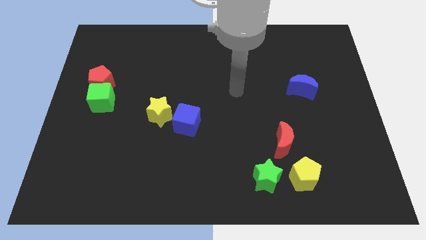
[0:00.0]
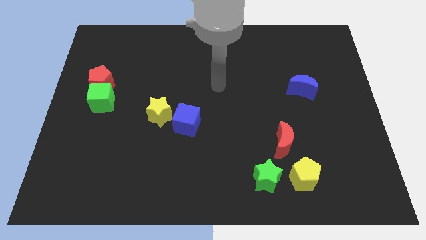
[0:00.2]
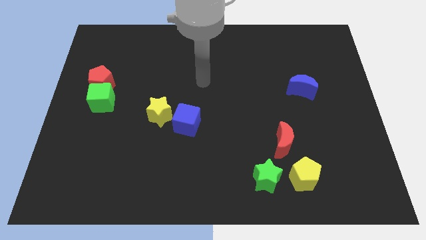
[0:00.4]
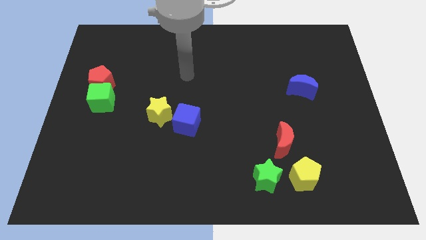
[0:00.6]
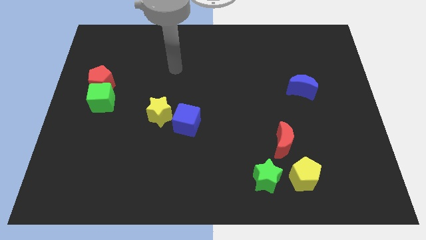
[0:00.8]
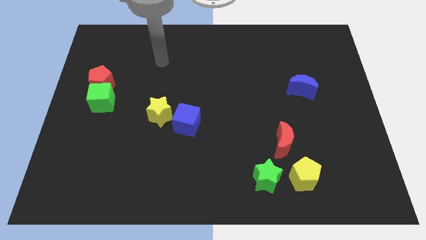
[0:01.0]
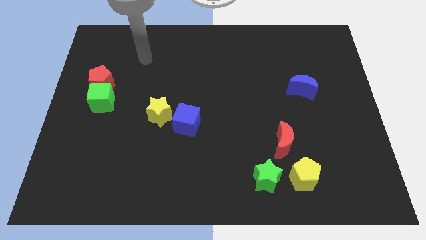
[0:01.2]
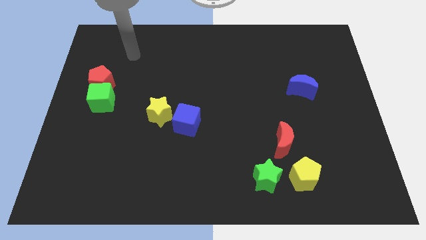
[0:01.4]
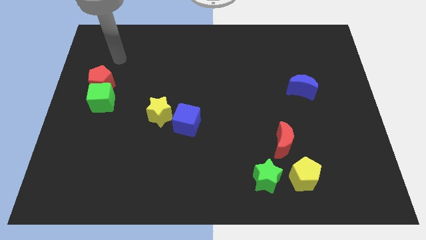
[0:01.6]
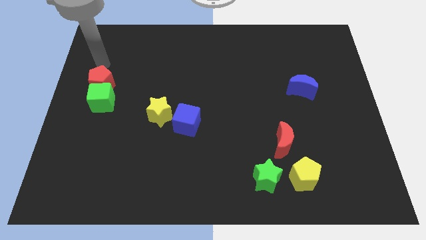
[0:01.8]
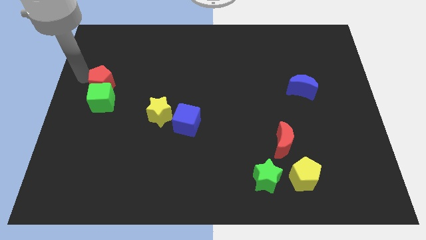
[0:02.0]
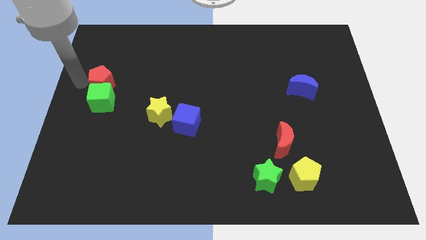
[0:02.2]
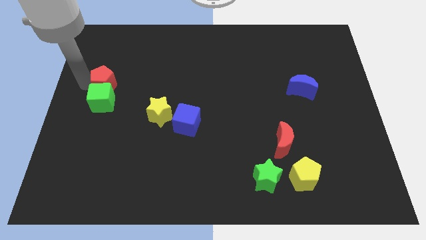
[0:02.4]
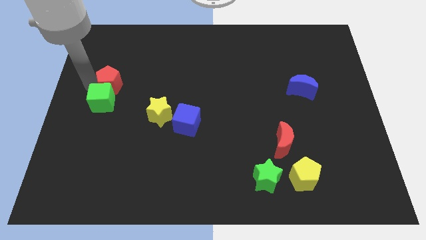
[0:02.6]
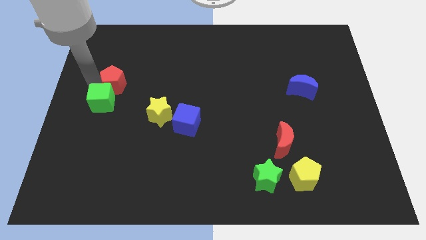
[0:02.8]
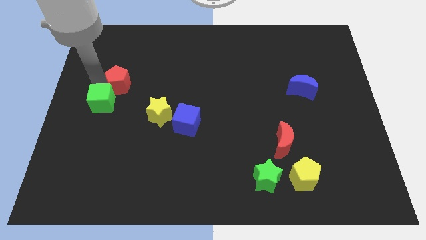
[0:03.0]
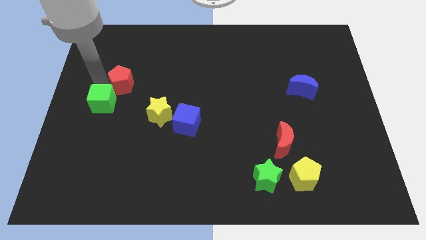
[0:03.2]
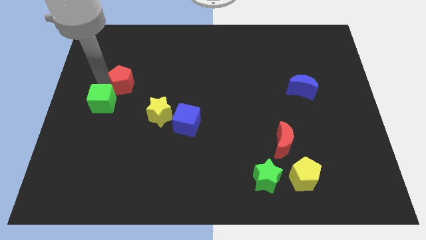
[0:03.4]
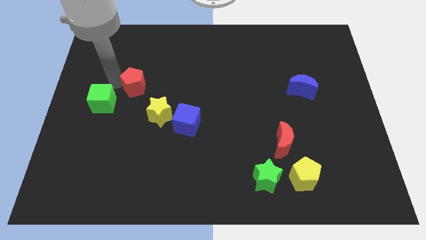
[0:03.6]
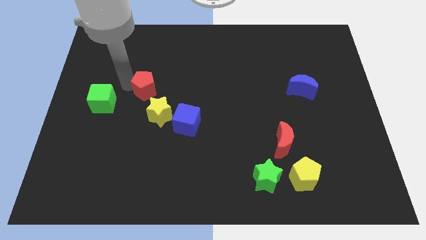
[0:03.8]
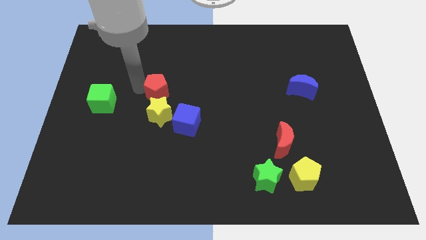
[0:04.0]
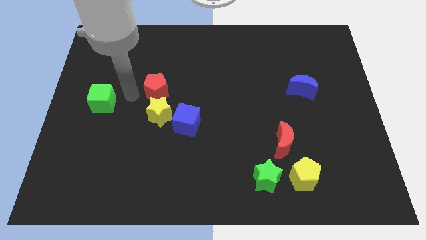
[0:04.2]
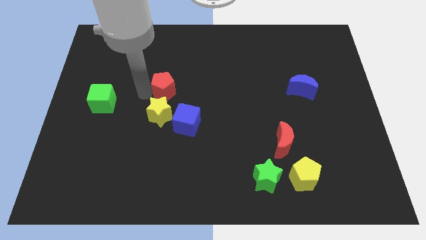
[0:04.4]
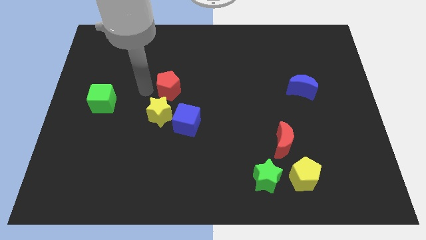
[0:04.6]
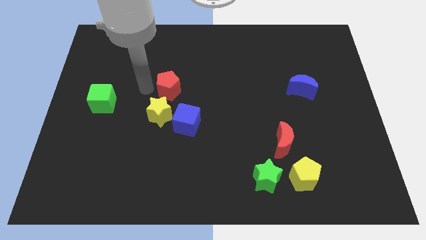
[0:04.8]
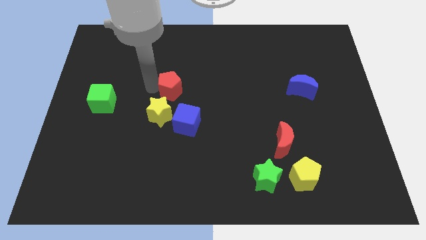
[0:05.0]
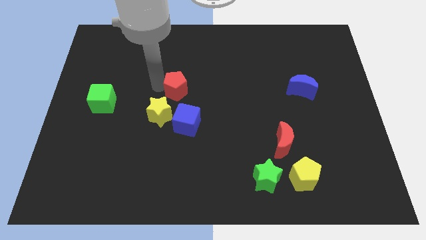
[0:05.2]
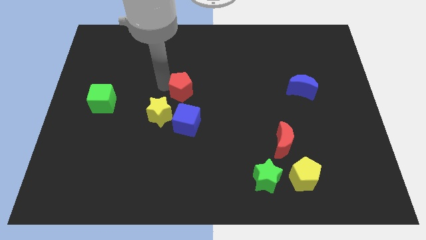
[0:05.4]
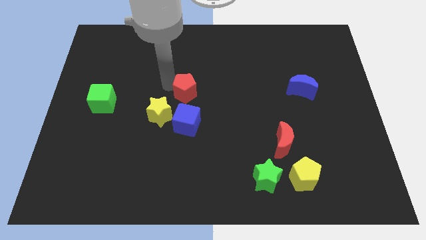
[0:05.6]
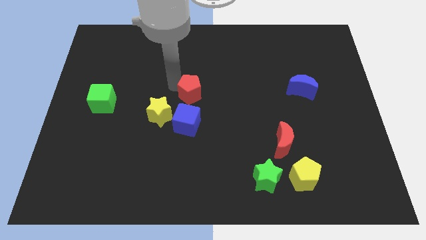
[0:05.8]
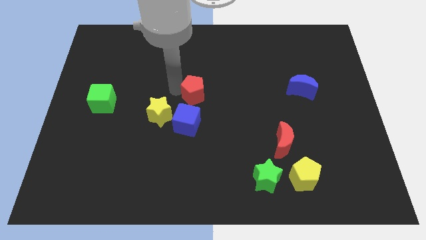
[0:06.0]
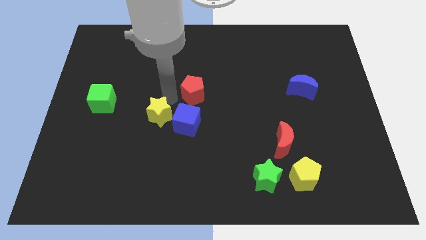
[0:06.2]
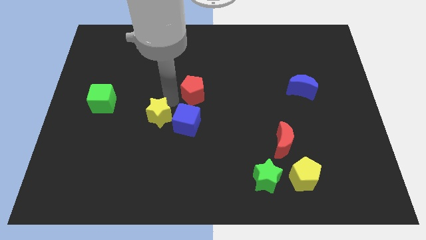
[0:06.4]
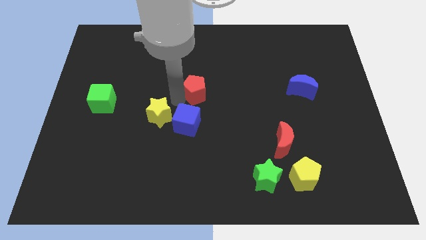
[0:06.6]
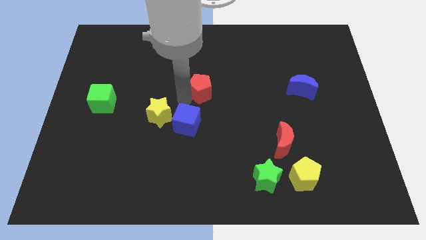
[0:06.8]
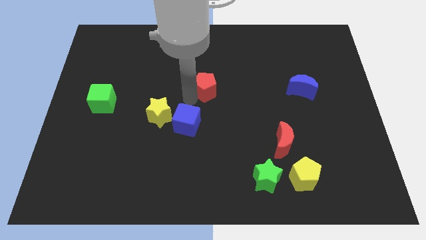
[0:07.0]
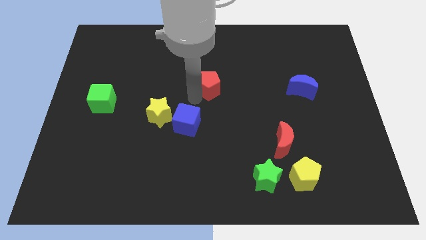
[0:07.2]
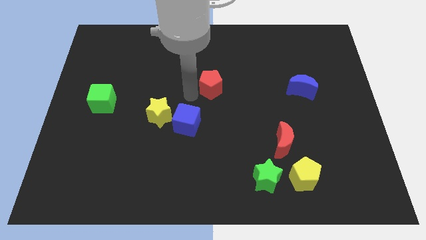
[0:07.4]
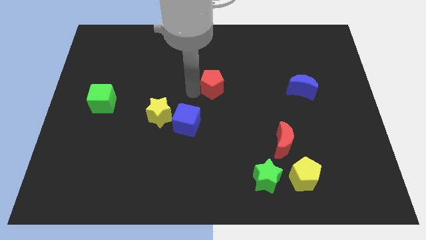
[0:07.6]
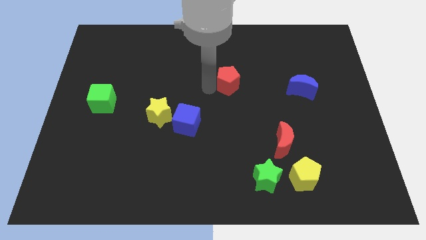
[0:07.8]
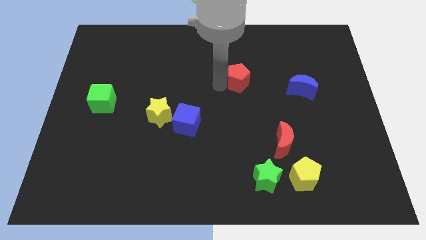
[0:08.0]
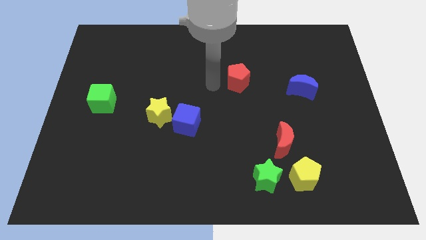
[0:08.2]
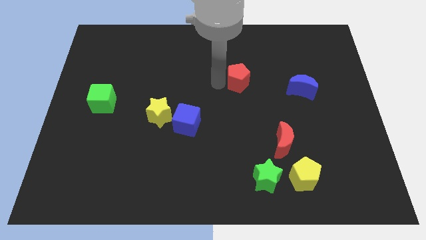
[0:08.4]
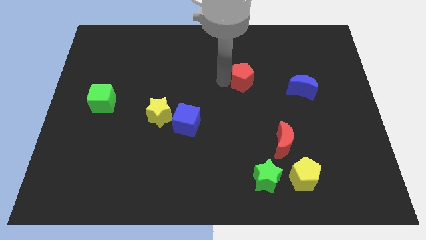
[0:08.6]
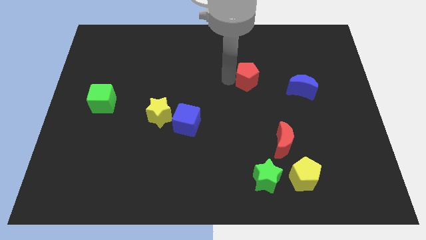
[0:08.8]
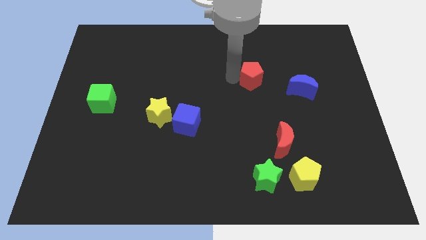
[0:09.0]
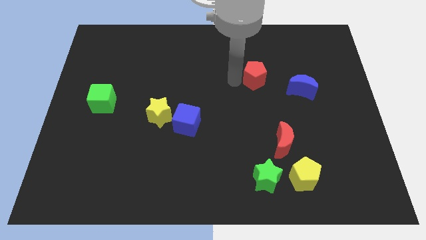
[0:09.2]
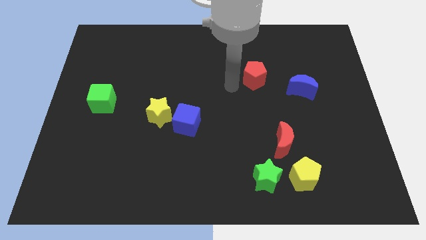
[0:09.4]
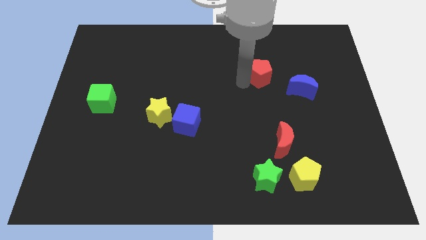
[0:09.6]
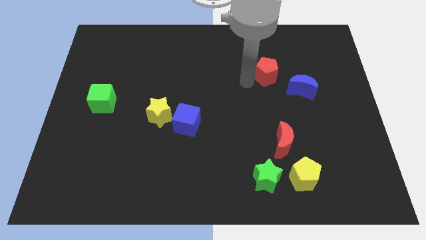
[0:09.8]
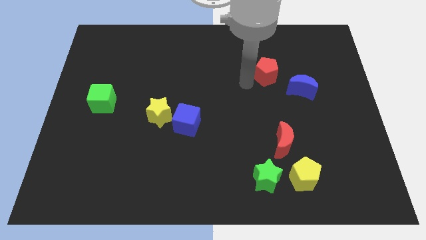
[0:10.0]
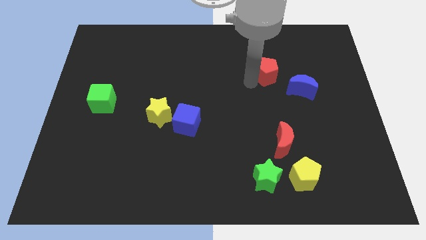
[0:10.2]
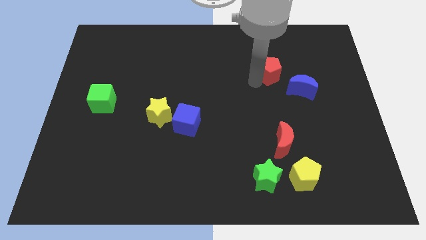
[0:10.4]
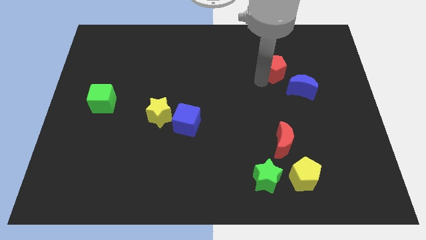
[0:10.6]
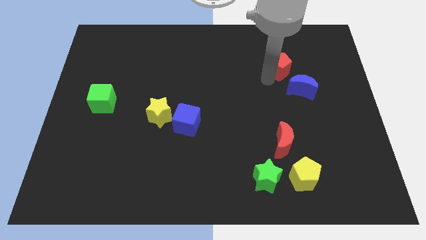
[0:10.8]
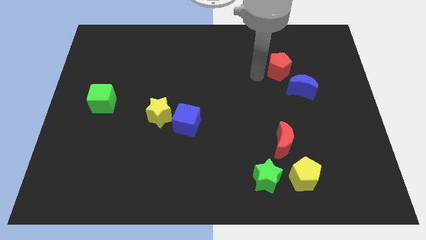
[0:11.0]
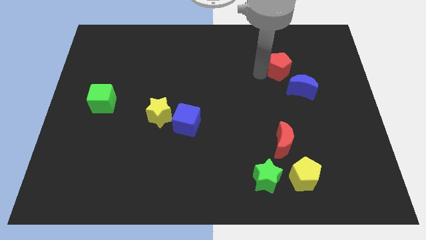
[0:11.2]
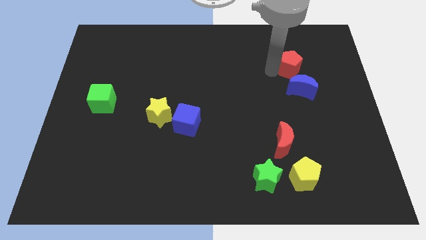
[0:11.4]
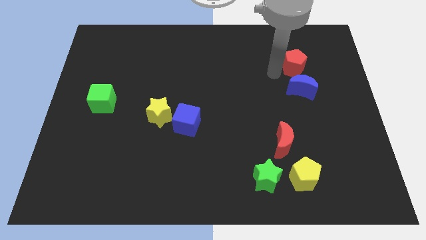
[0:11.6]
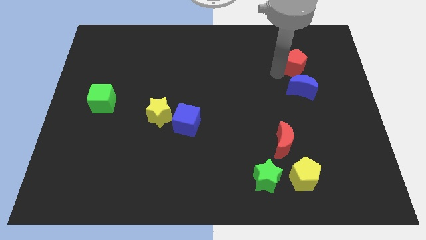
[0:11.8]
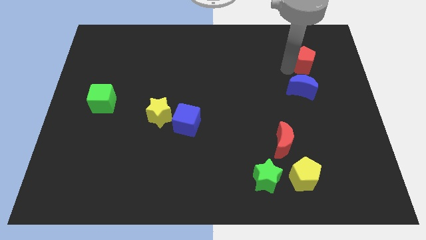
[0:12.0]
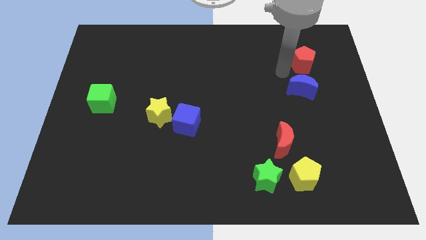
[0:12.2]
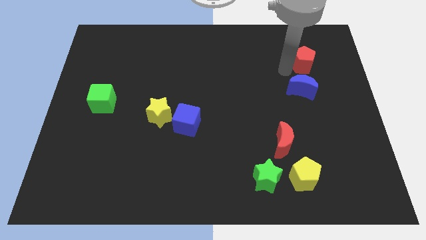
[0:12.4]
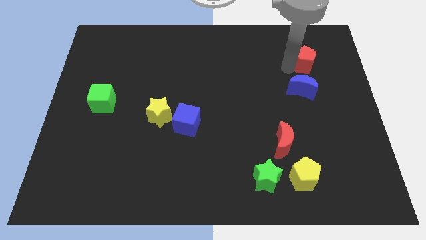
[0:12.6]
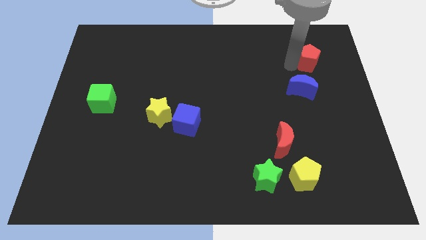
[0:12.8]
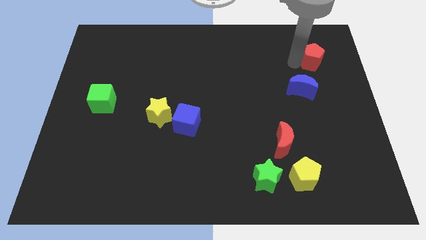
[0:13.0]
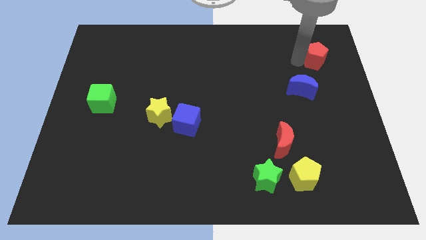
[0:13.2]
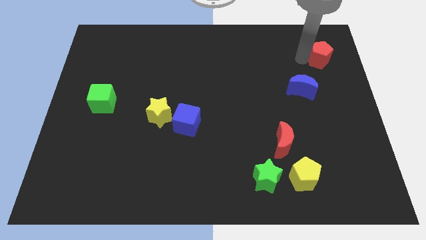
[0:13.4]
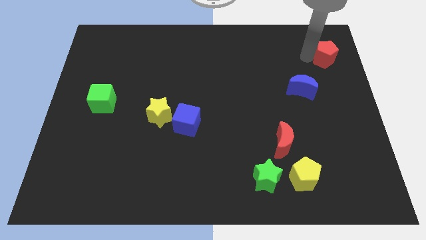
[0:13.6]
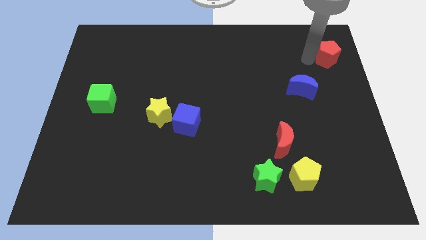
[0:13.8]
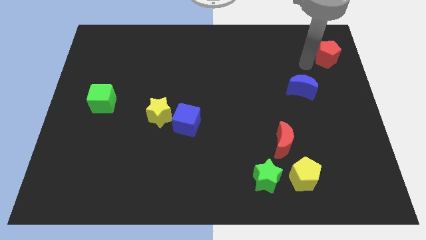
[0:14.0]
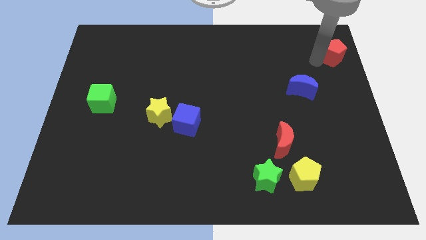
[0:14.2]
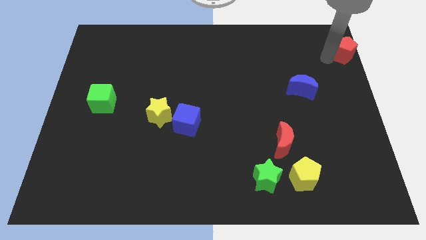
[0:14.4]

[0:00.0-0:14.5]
put the red pentagon to the upper right corner
